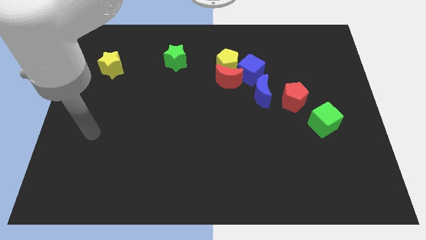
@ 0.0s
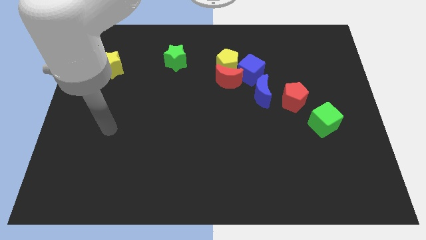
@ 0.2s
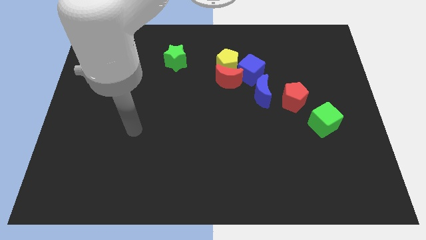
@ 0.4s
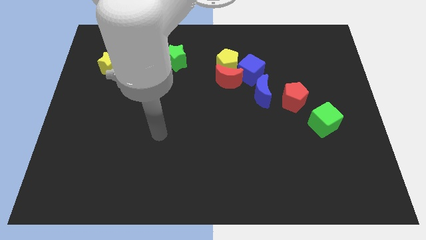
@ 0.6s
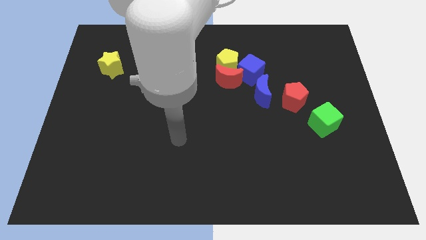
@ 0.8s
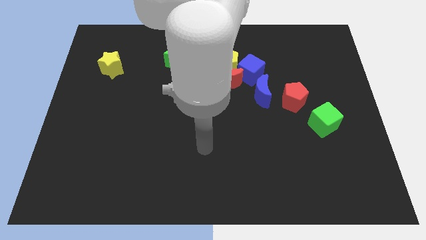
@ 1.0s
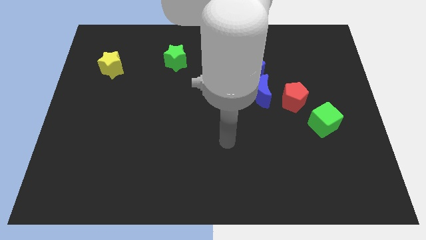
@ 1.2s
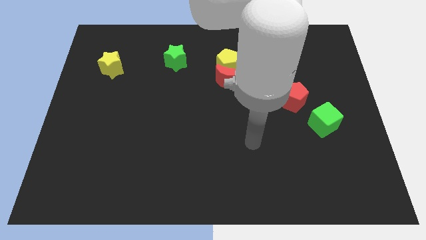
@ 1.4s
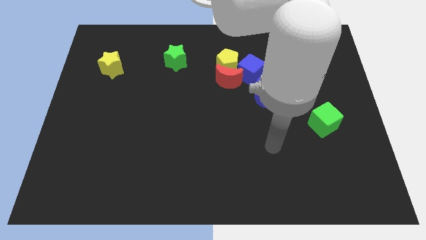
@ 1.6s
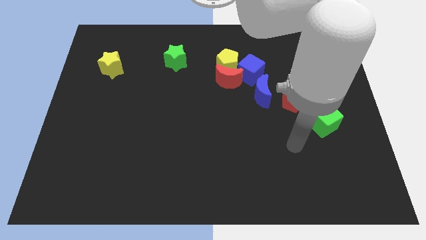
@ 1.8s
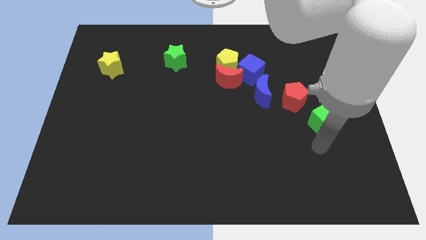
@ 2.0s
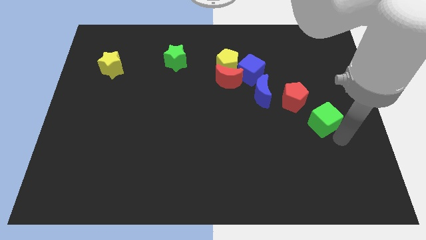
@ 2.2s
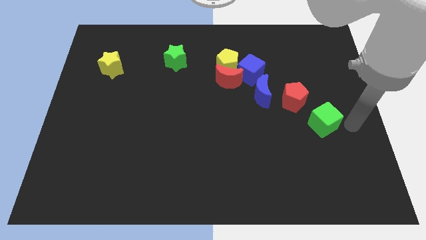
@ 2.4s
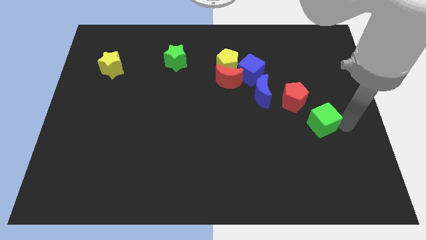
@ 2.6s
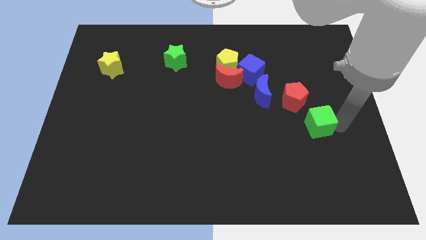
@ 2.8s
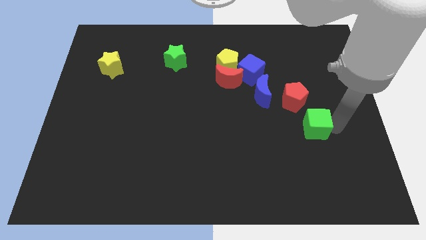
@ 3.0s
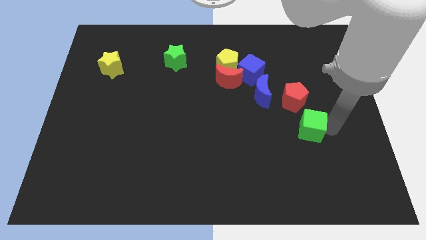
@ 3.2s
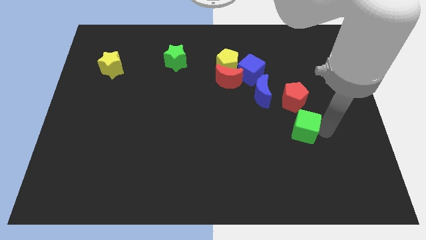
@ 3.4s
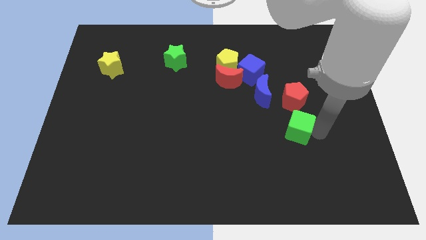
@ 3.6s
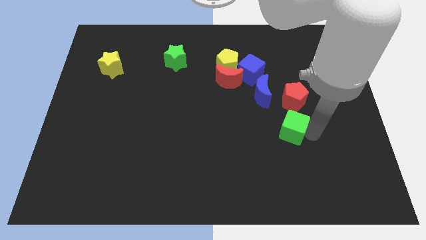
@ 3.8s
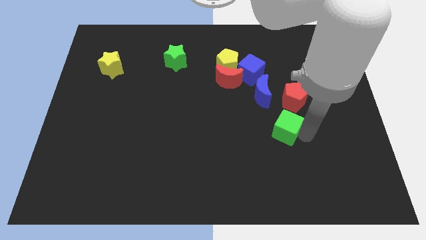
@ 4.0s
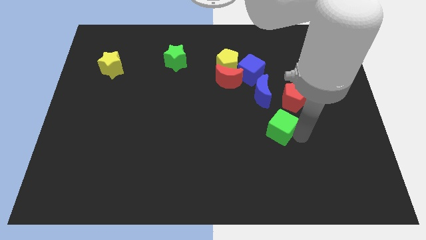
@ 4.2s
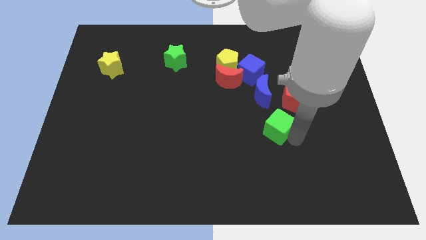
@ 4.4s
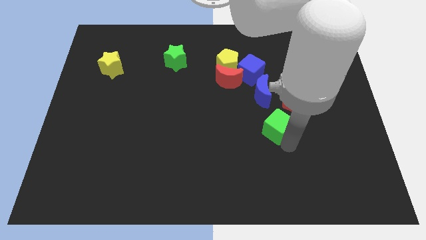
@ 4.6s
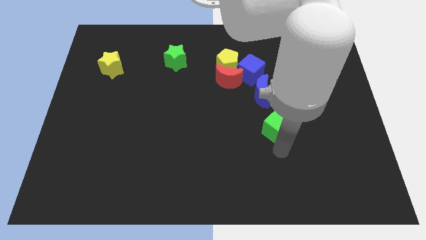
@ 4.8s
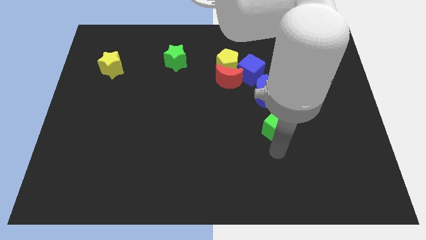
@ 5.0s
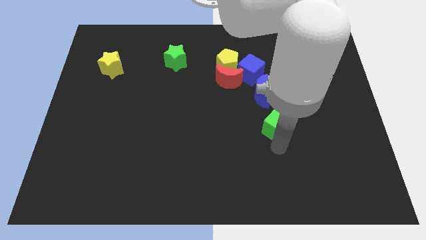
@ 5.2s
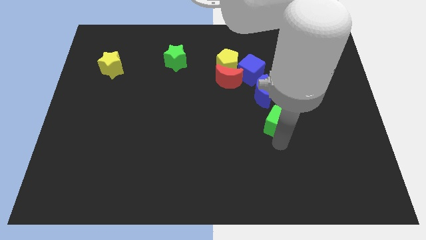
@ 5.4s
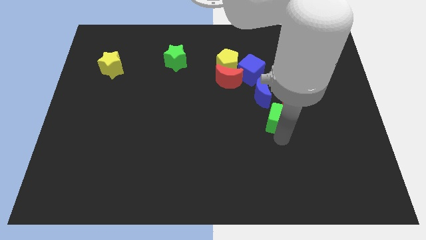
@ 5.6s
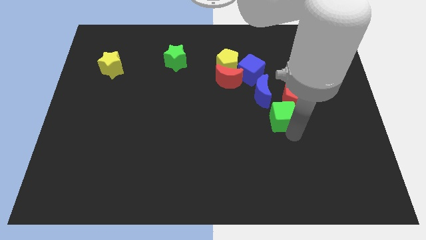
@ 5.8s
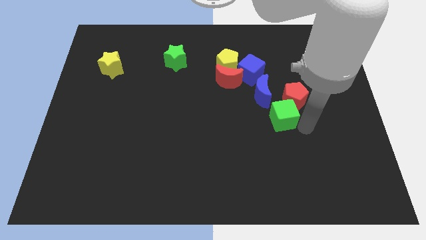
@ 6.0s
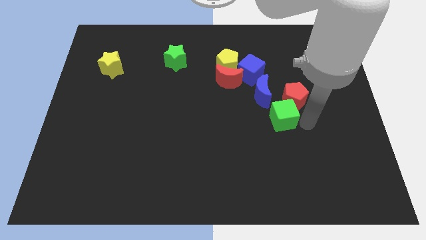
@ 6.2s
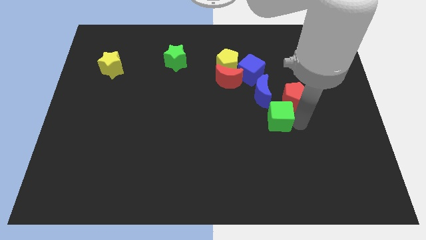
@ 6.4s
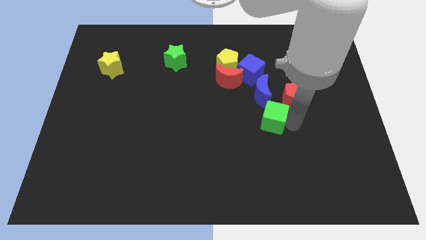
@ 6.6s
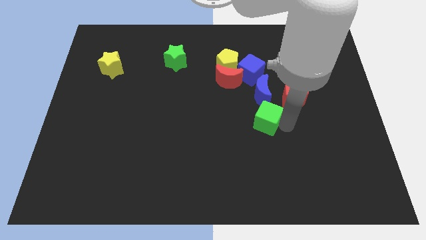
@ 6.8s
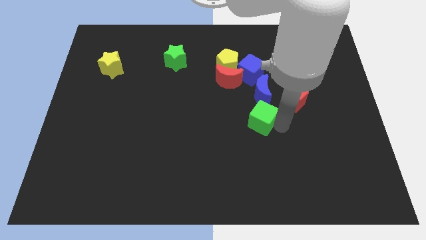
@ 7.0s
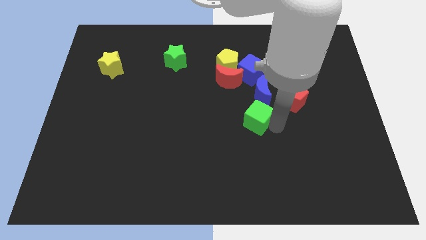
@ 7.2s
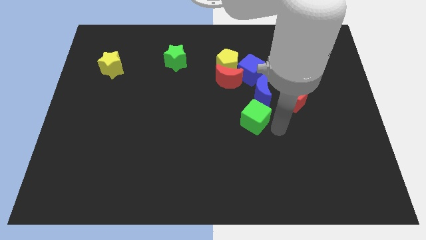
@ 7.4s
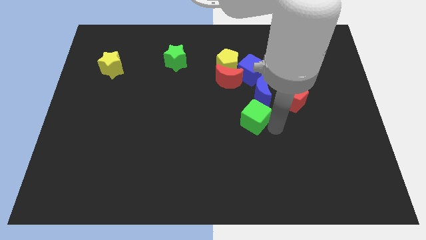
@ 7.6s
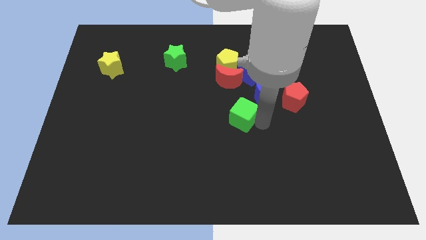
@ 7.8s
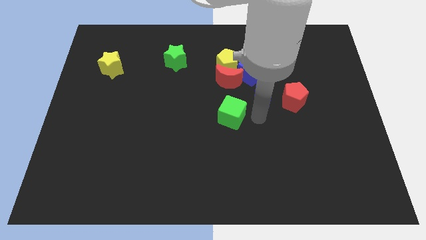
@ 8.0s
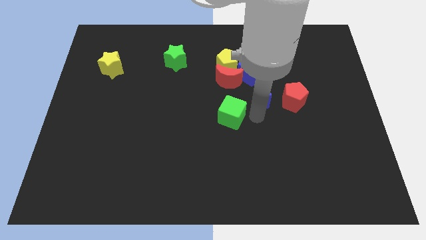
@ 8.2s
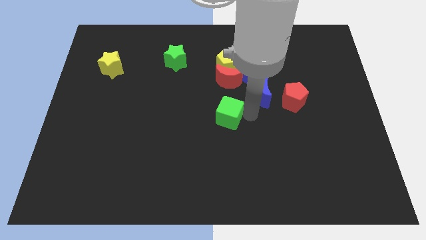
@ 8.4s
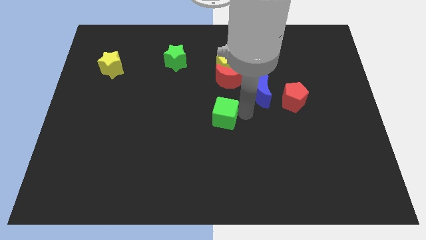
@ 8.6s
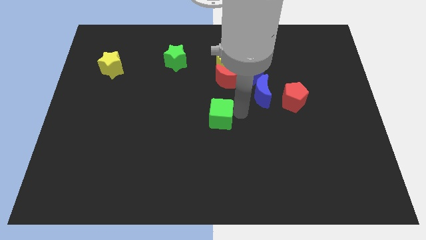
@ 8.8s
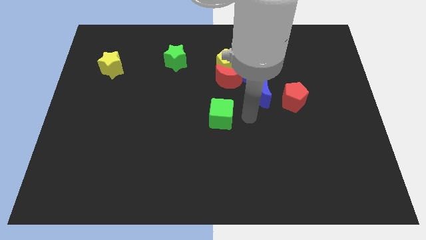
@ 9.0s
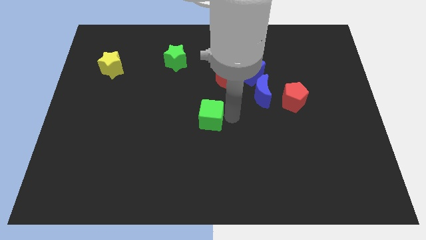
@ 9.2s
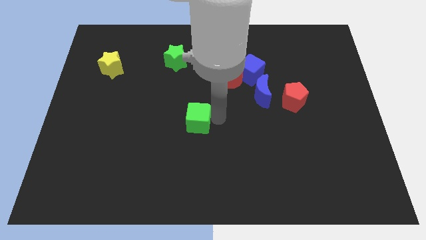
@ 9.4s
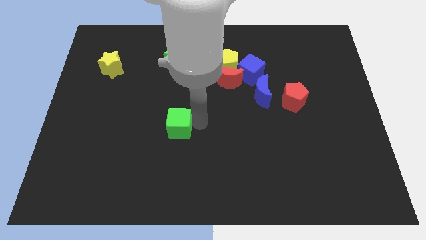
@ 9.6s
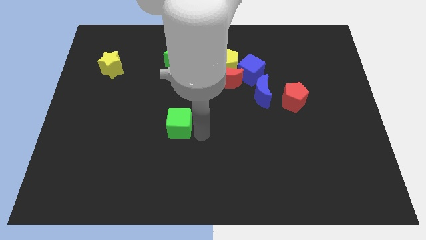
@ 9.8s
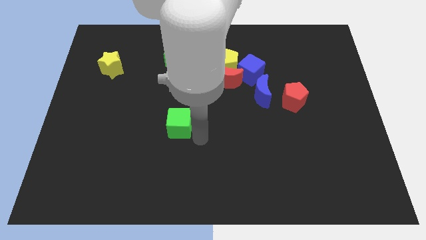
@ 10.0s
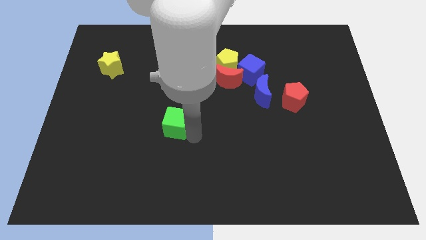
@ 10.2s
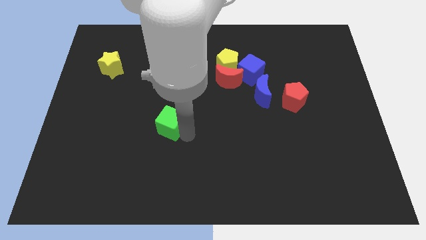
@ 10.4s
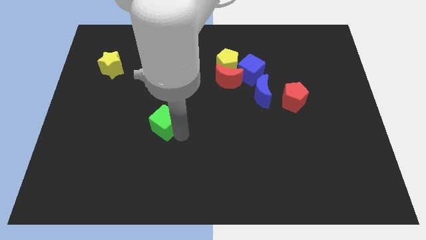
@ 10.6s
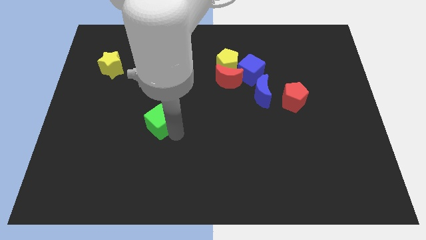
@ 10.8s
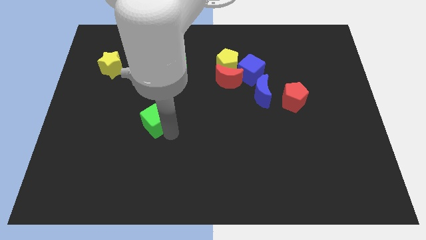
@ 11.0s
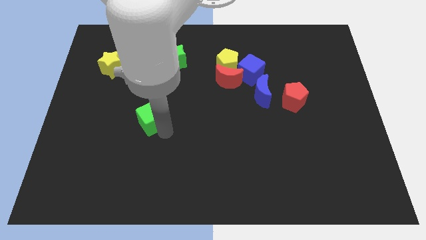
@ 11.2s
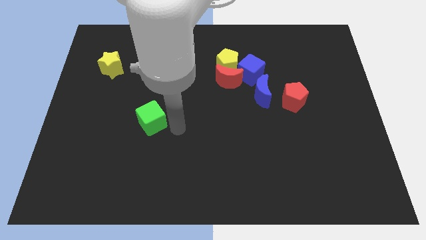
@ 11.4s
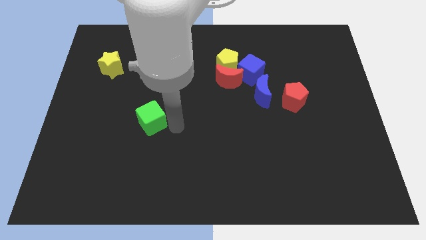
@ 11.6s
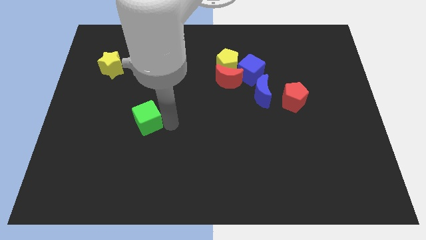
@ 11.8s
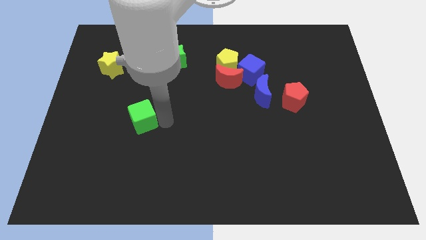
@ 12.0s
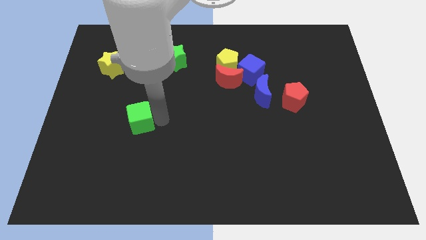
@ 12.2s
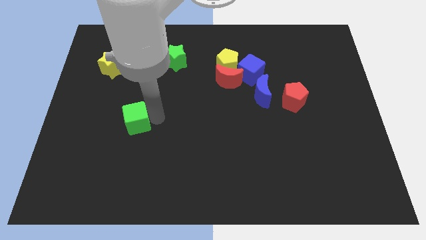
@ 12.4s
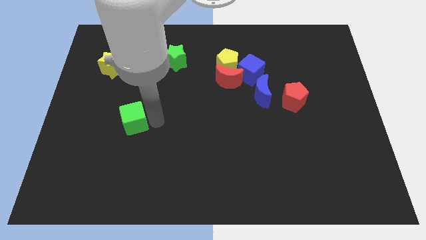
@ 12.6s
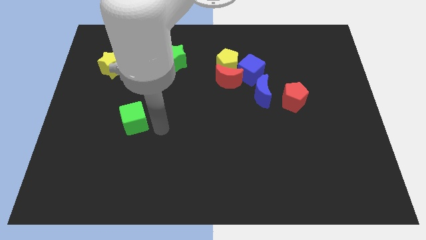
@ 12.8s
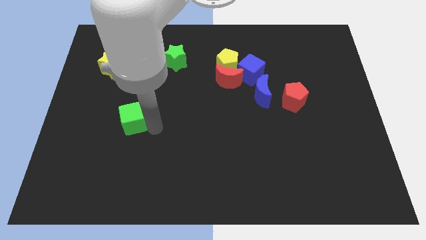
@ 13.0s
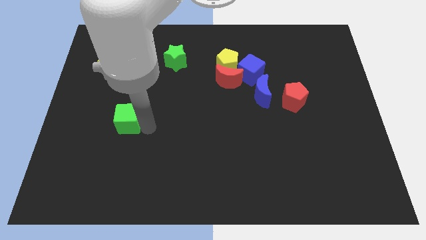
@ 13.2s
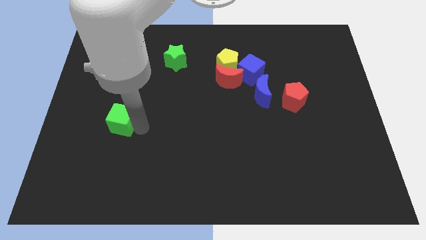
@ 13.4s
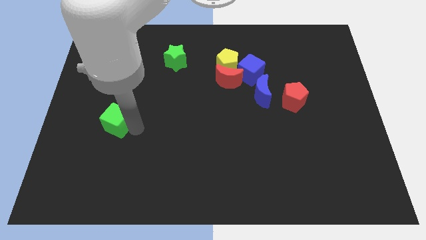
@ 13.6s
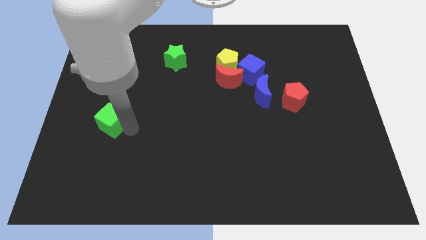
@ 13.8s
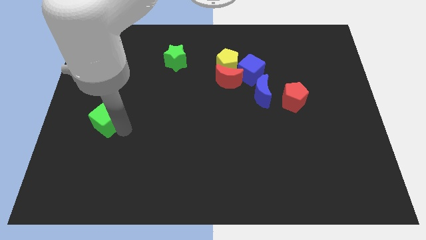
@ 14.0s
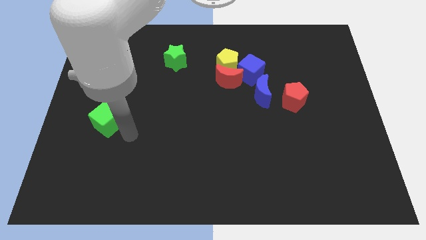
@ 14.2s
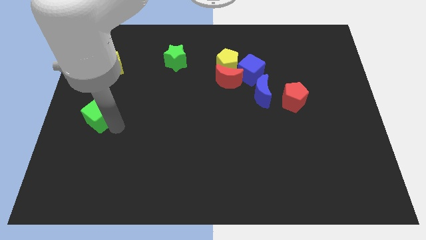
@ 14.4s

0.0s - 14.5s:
slide the green cube to the left side
